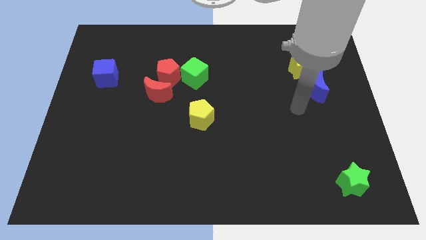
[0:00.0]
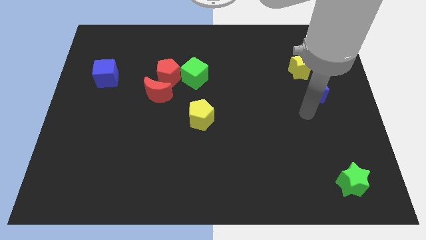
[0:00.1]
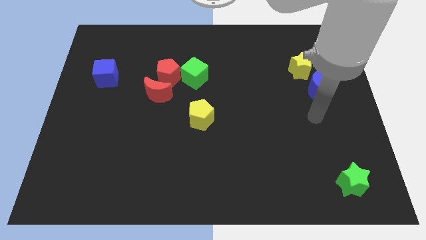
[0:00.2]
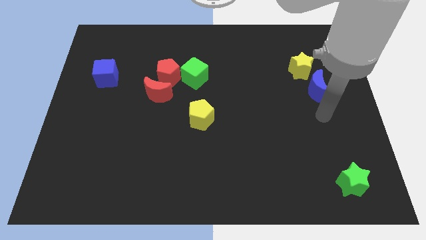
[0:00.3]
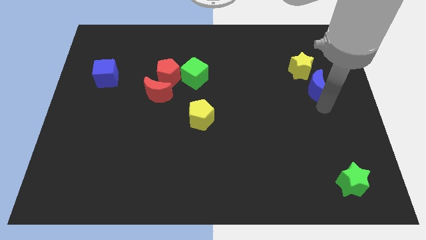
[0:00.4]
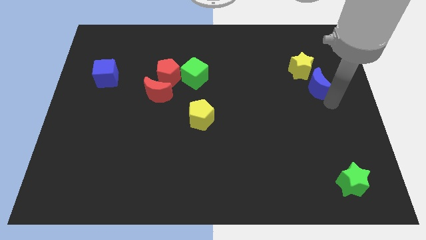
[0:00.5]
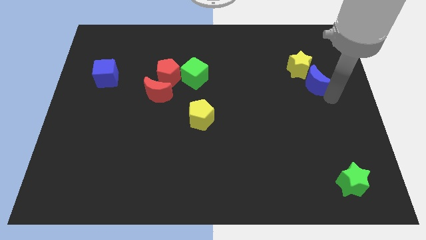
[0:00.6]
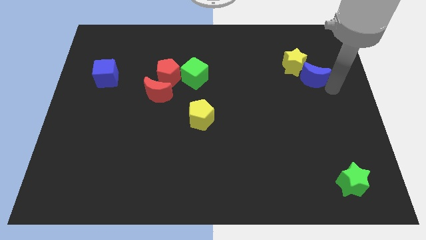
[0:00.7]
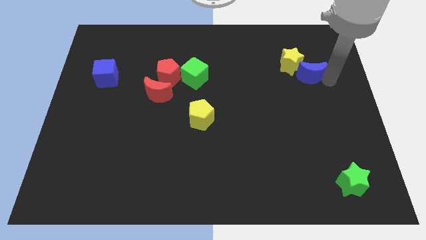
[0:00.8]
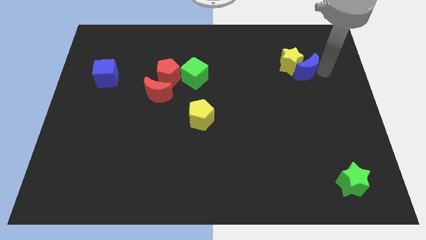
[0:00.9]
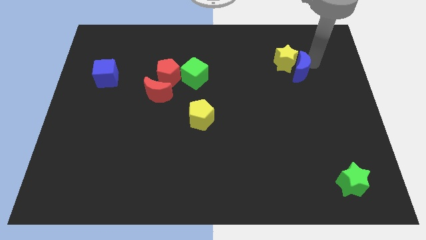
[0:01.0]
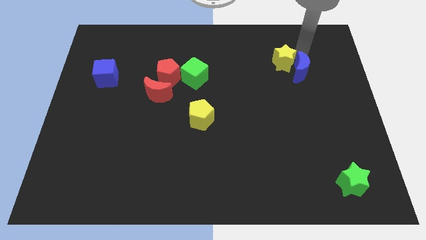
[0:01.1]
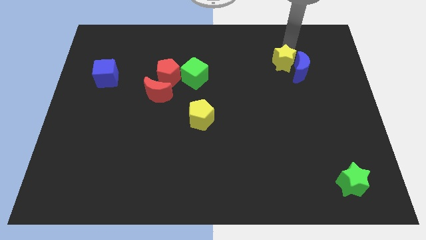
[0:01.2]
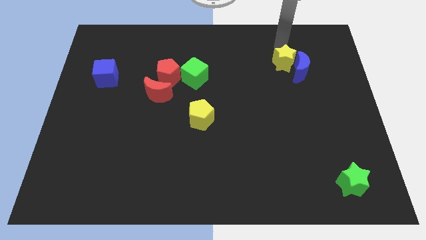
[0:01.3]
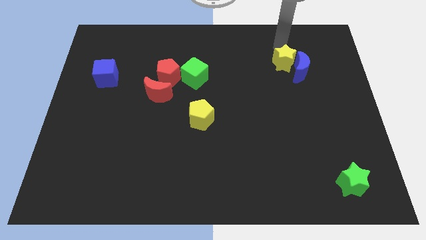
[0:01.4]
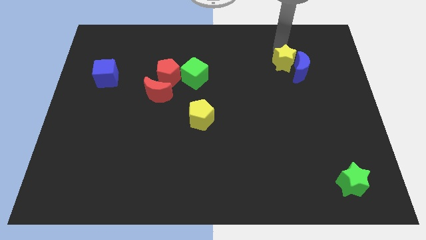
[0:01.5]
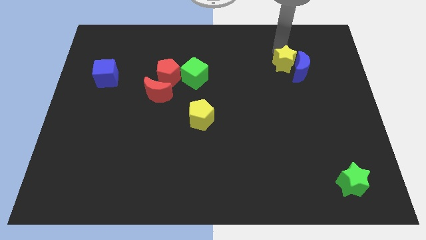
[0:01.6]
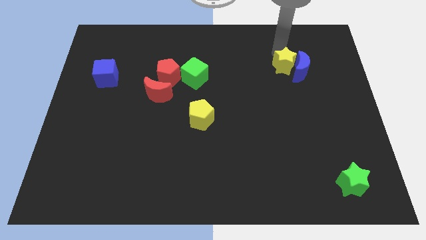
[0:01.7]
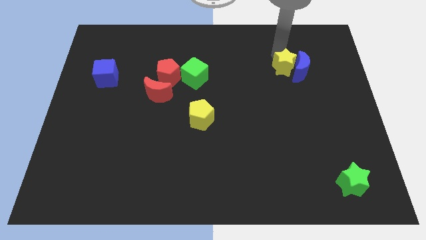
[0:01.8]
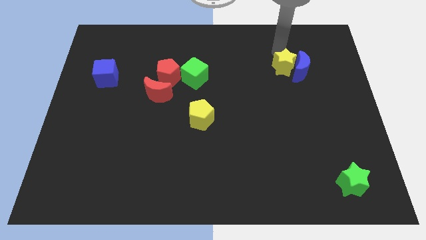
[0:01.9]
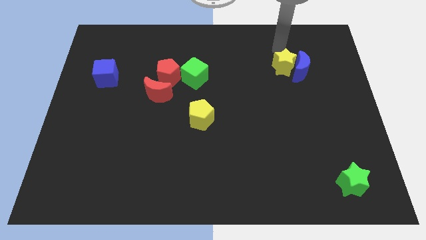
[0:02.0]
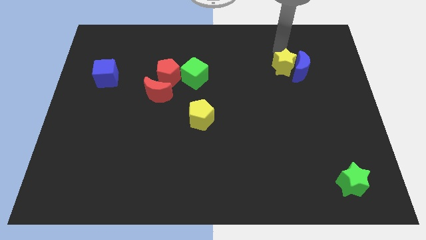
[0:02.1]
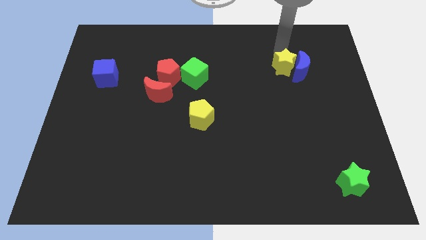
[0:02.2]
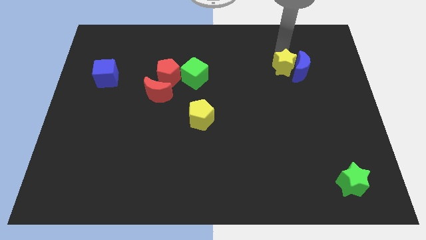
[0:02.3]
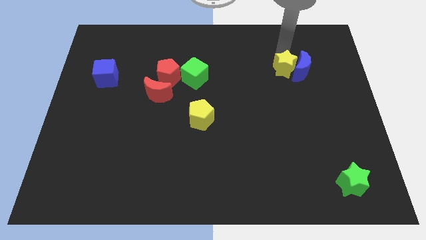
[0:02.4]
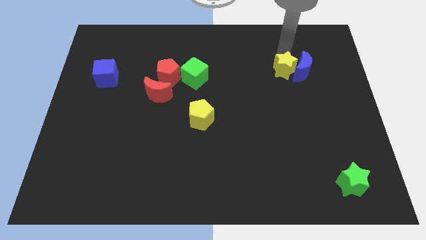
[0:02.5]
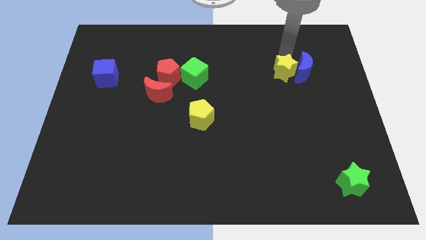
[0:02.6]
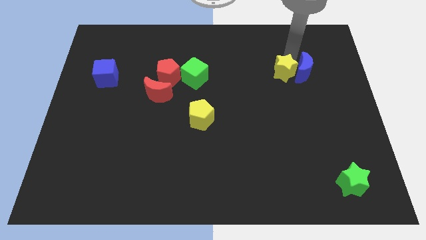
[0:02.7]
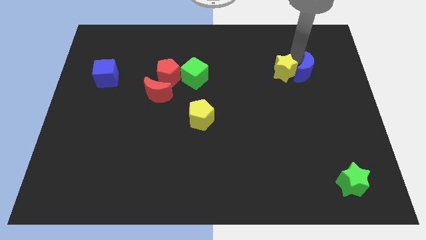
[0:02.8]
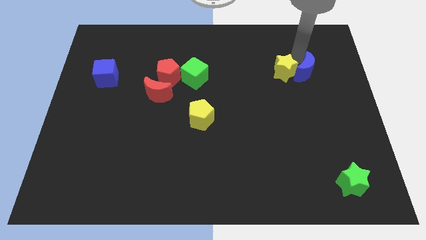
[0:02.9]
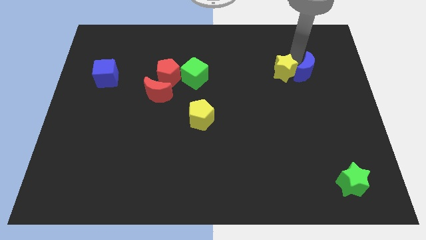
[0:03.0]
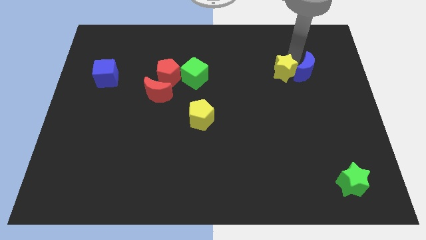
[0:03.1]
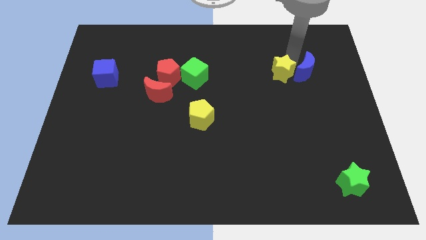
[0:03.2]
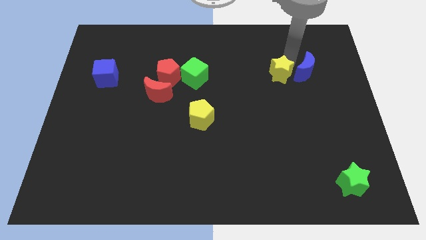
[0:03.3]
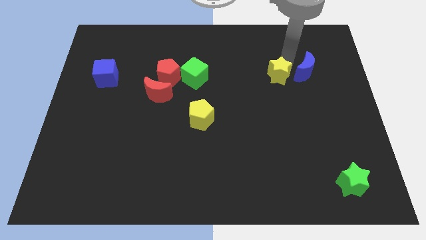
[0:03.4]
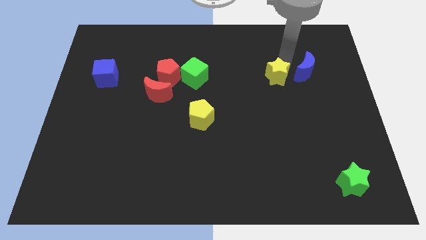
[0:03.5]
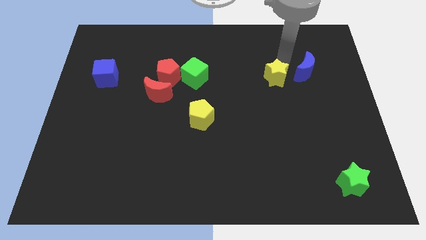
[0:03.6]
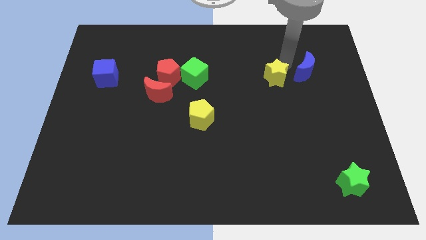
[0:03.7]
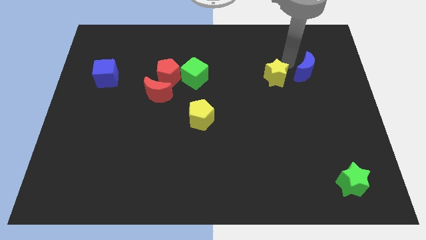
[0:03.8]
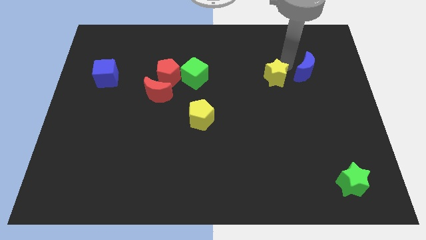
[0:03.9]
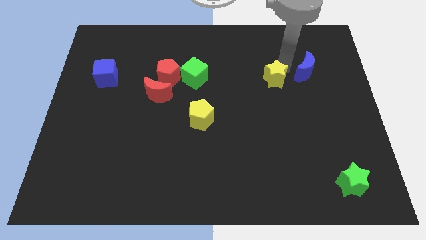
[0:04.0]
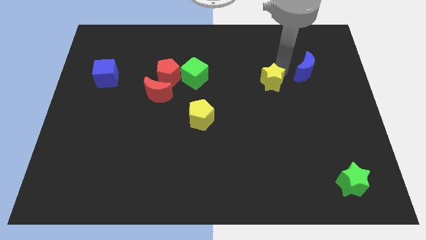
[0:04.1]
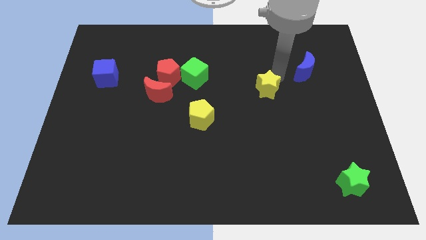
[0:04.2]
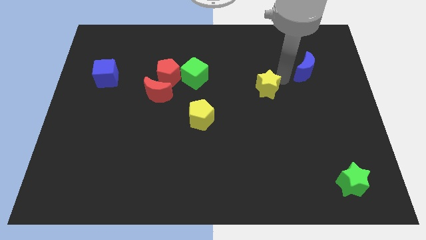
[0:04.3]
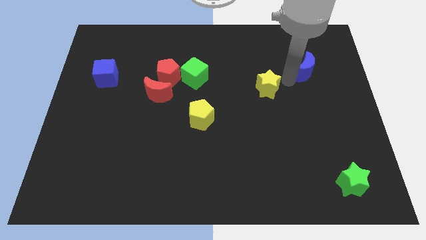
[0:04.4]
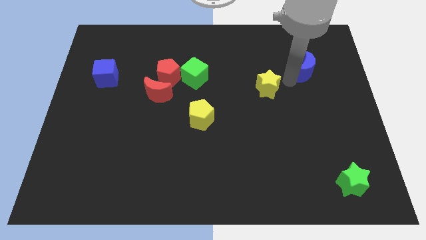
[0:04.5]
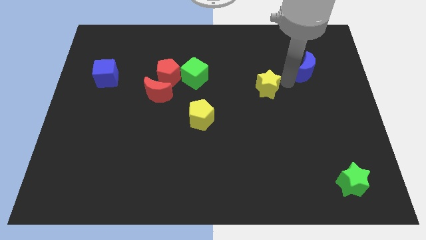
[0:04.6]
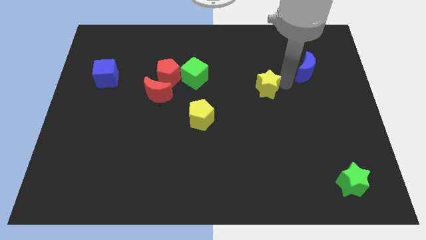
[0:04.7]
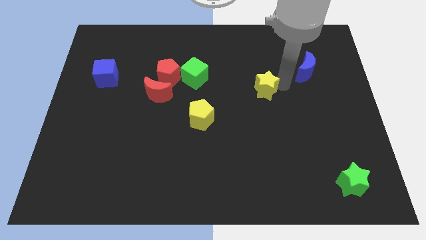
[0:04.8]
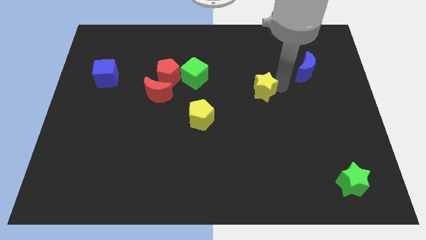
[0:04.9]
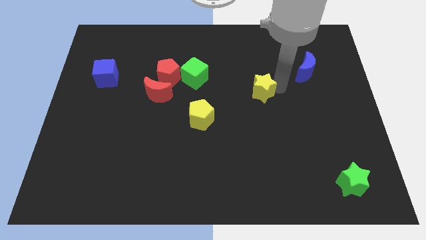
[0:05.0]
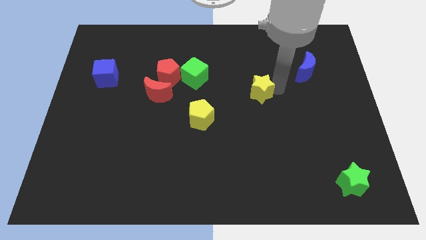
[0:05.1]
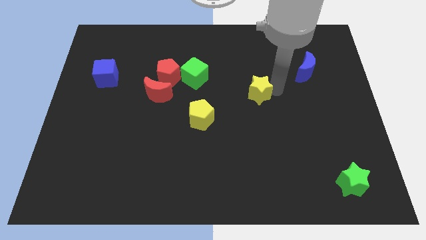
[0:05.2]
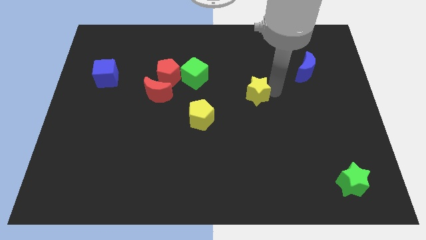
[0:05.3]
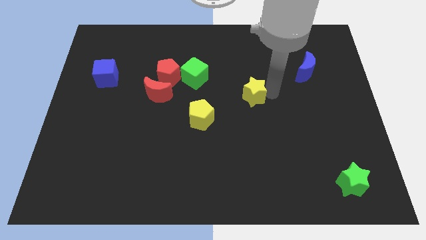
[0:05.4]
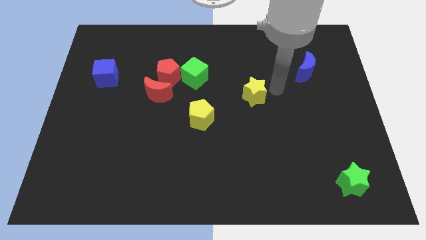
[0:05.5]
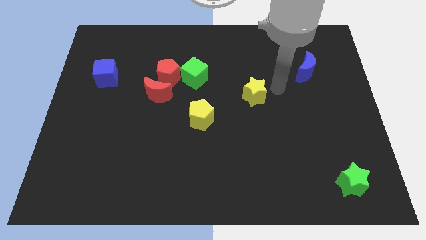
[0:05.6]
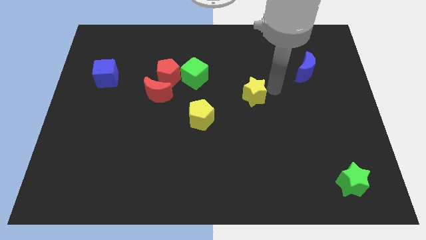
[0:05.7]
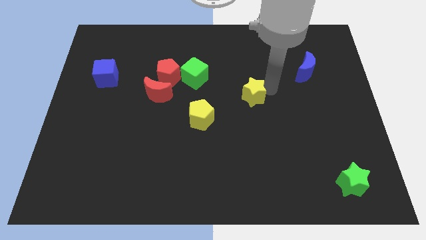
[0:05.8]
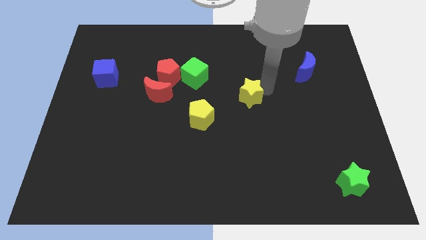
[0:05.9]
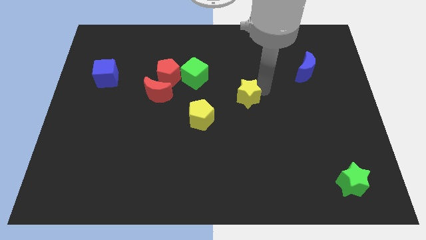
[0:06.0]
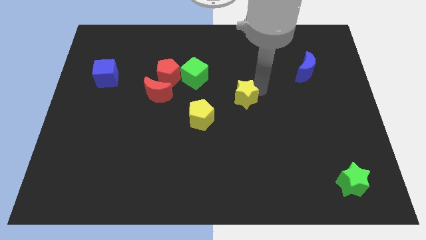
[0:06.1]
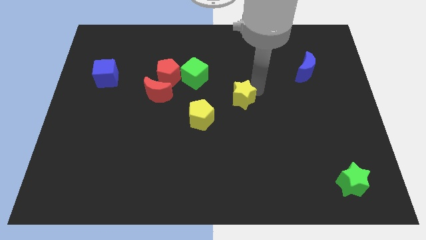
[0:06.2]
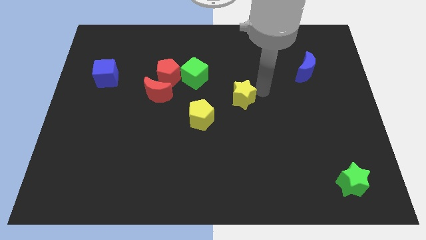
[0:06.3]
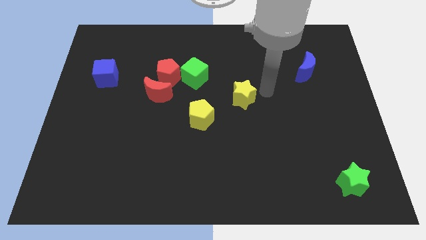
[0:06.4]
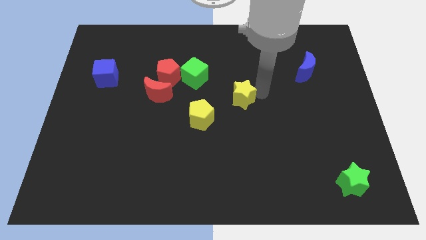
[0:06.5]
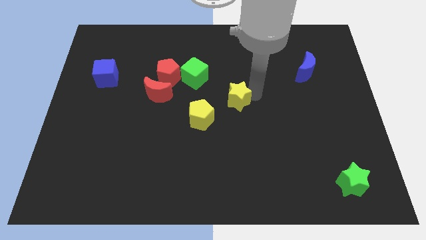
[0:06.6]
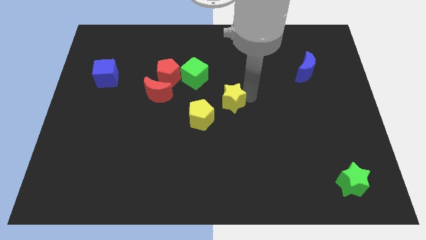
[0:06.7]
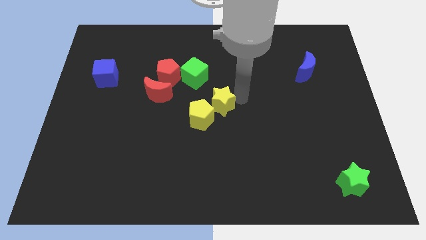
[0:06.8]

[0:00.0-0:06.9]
move the yellow star towards the yellow pentagon

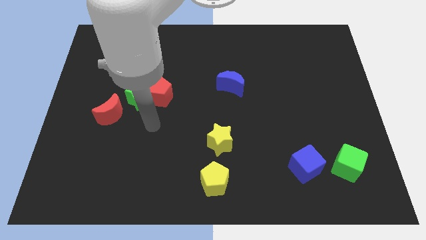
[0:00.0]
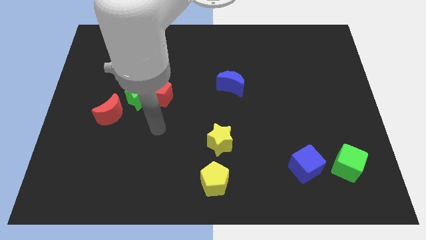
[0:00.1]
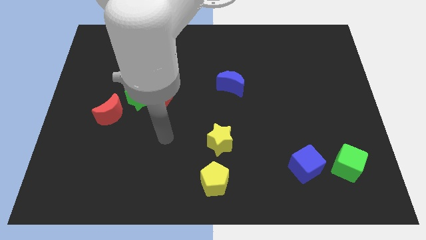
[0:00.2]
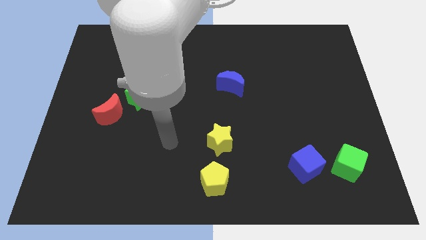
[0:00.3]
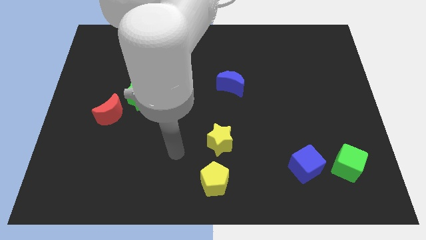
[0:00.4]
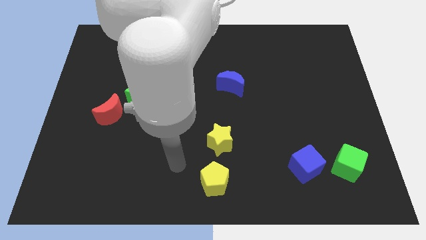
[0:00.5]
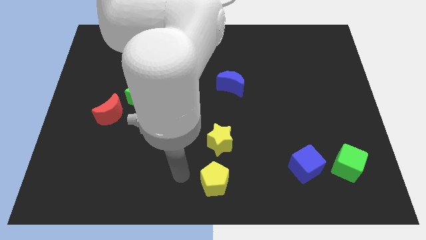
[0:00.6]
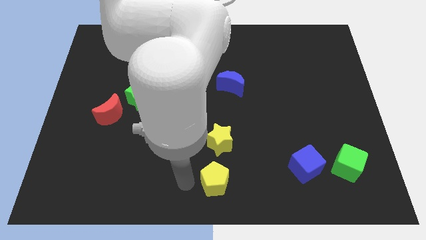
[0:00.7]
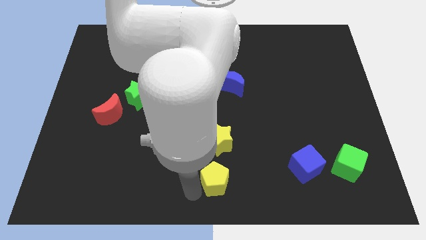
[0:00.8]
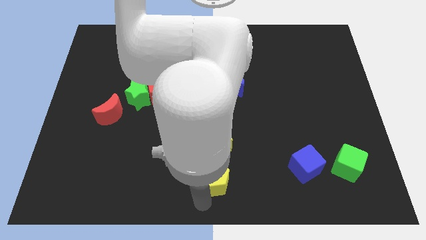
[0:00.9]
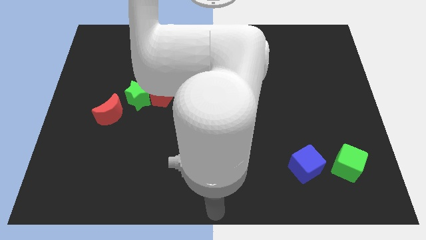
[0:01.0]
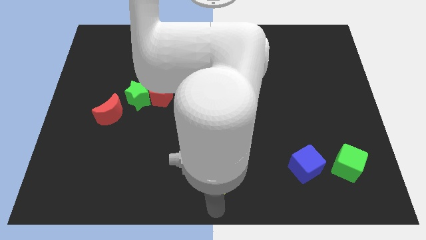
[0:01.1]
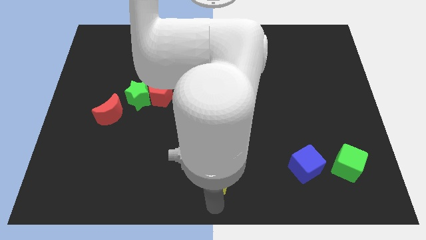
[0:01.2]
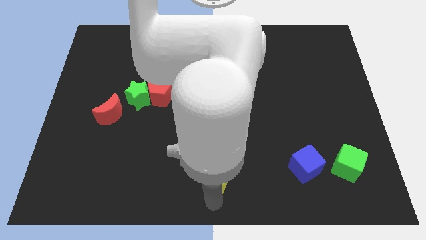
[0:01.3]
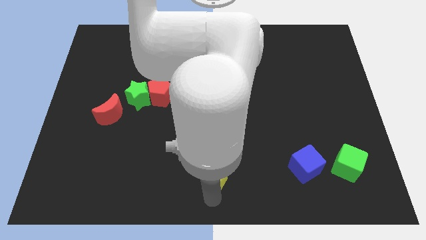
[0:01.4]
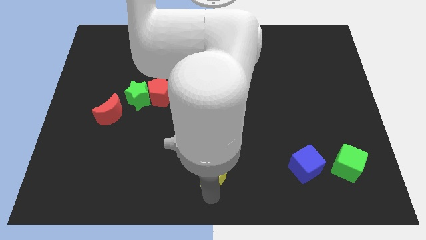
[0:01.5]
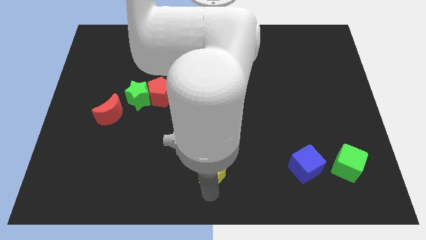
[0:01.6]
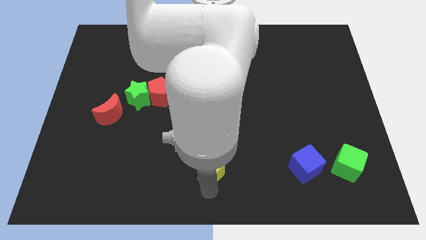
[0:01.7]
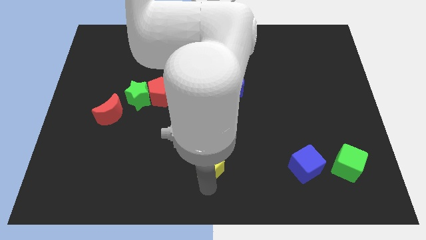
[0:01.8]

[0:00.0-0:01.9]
push the yellow pentagon next to the yellow star
